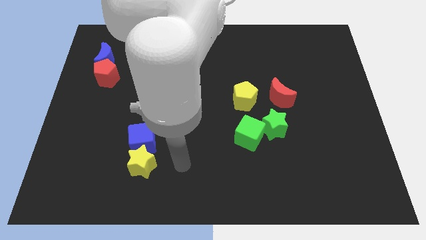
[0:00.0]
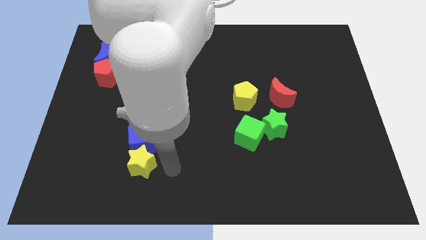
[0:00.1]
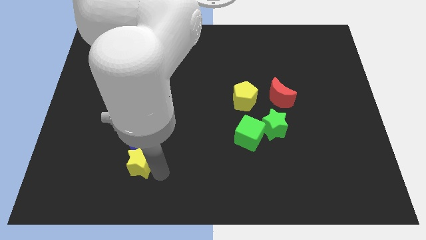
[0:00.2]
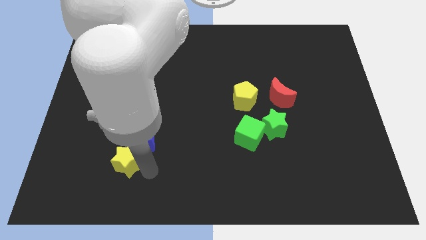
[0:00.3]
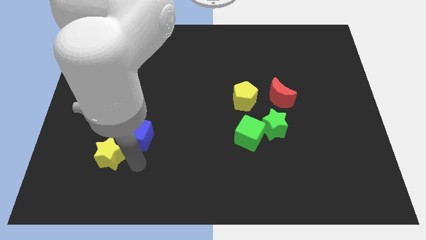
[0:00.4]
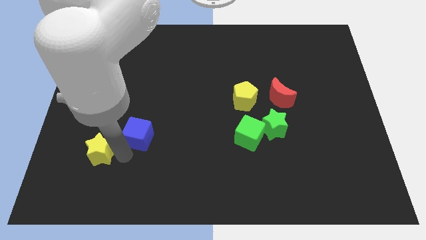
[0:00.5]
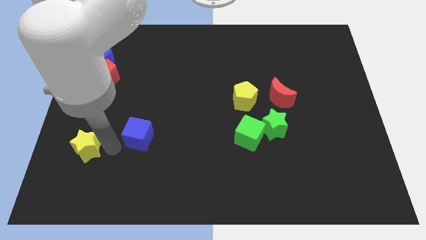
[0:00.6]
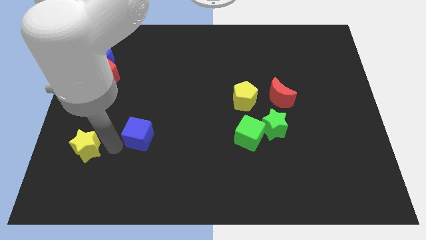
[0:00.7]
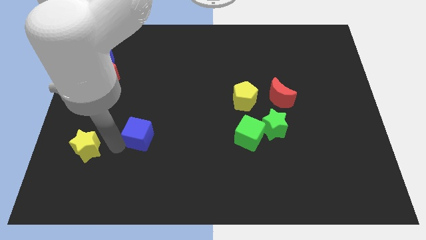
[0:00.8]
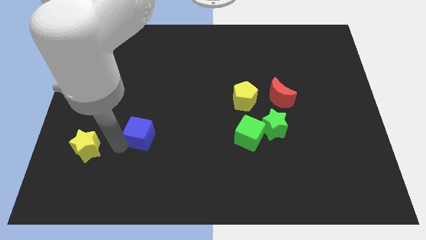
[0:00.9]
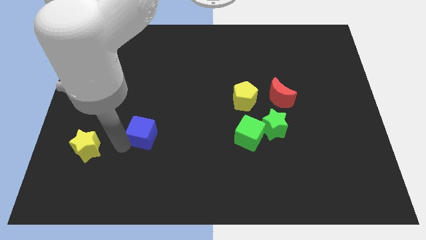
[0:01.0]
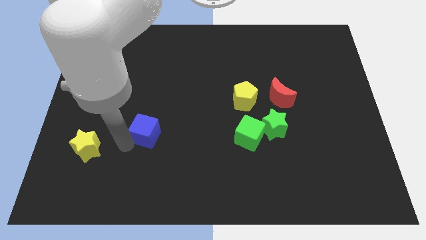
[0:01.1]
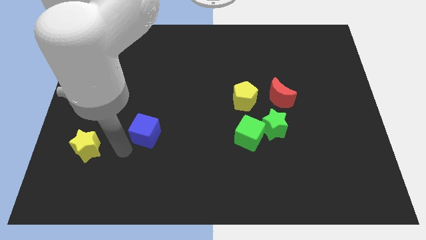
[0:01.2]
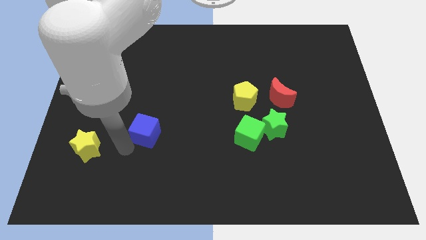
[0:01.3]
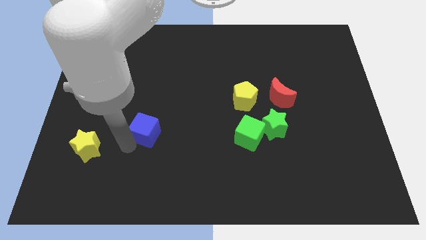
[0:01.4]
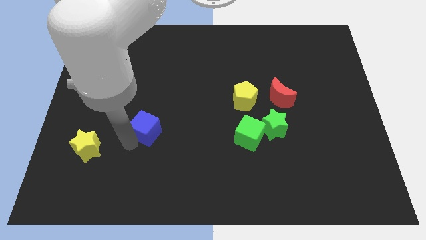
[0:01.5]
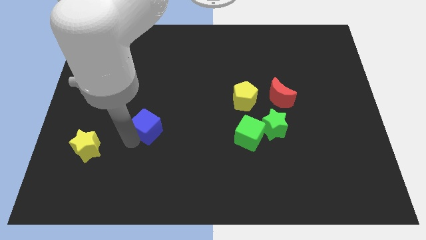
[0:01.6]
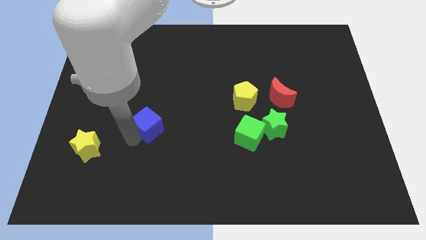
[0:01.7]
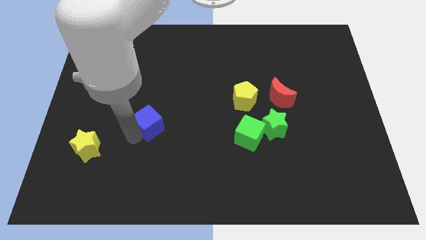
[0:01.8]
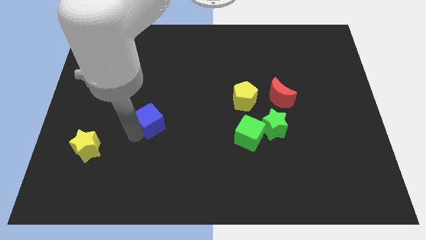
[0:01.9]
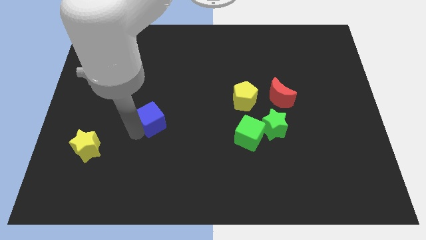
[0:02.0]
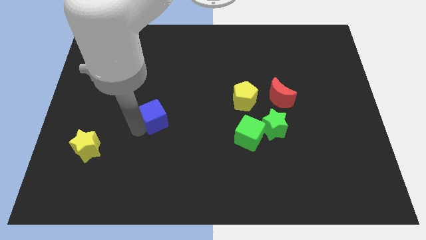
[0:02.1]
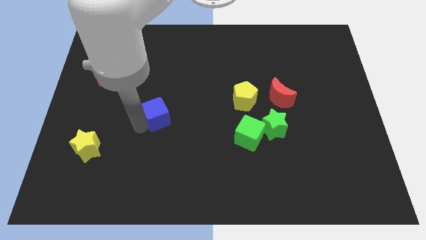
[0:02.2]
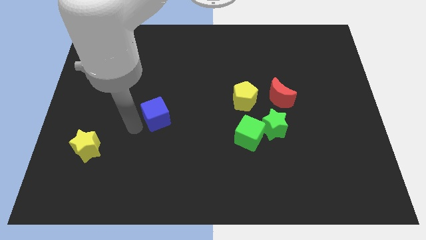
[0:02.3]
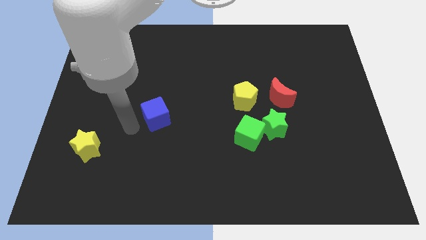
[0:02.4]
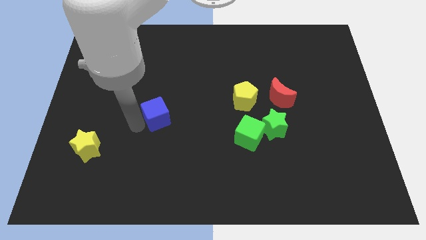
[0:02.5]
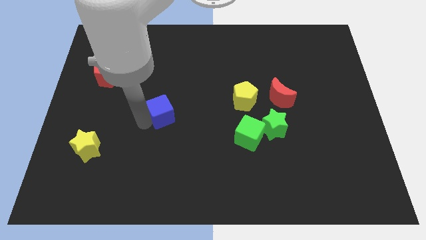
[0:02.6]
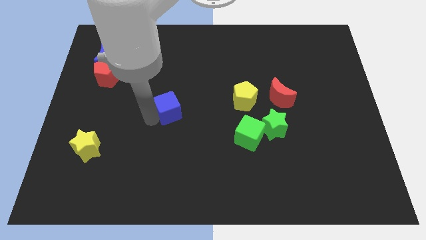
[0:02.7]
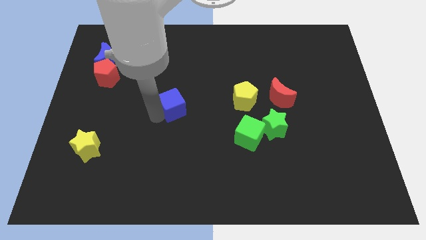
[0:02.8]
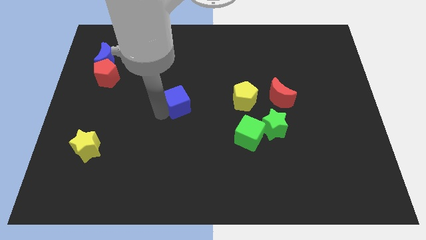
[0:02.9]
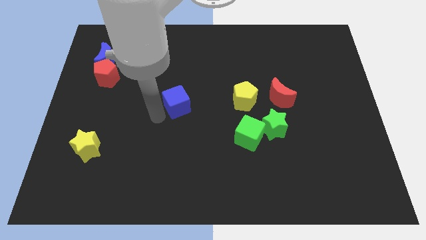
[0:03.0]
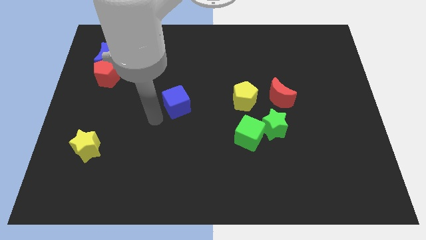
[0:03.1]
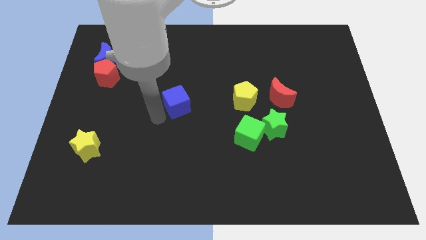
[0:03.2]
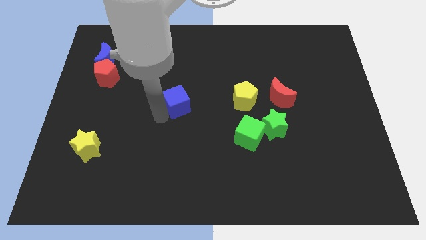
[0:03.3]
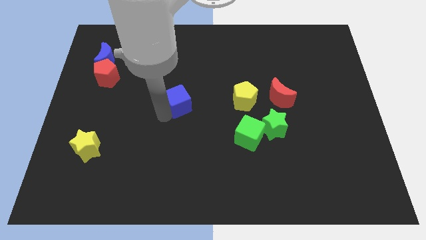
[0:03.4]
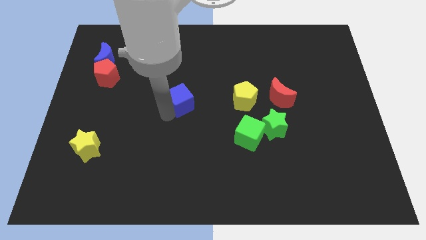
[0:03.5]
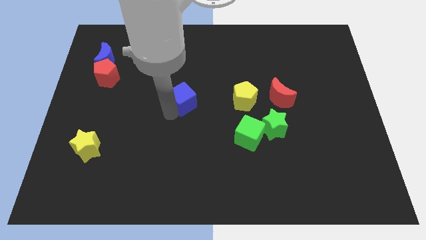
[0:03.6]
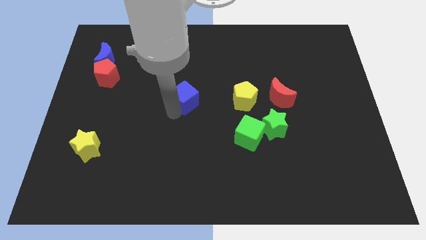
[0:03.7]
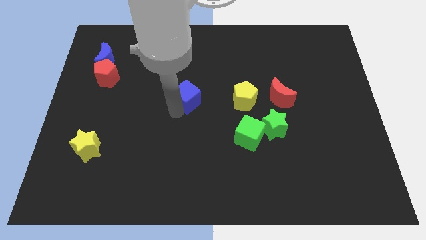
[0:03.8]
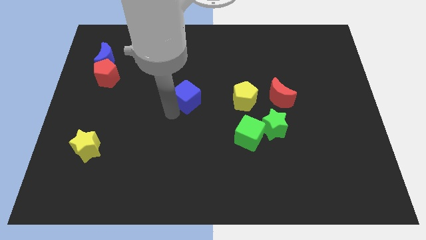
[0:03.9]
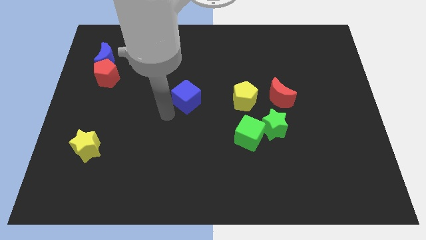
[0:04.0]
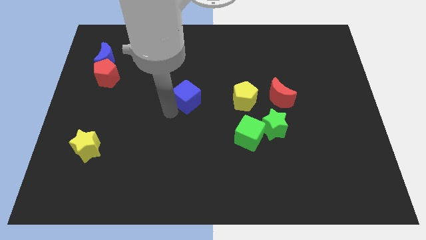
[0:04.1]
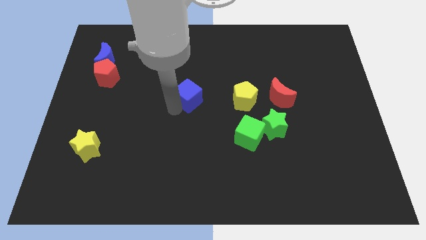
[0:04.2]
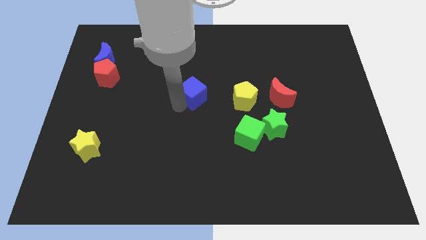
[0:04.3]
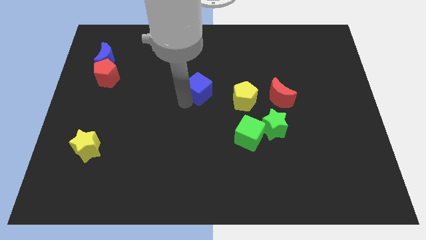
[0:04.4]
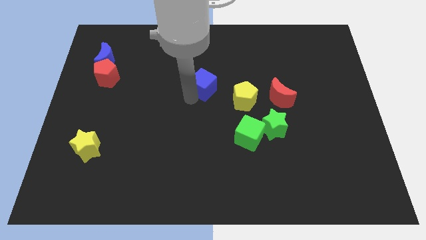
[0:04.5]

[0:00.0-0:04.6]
move the blue cube diagonally up and right

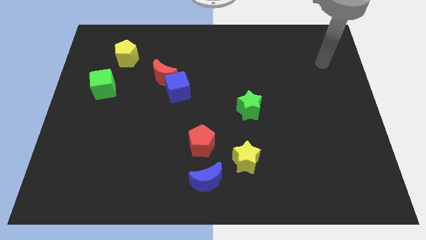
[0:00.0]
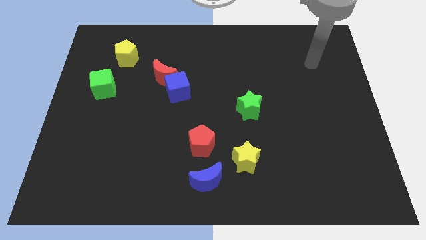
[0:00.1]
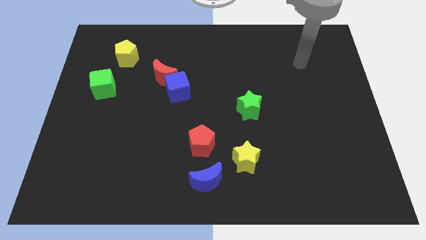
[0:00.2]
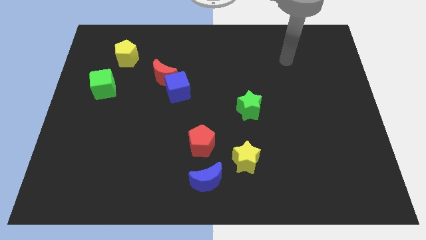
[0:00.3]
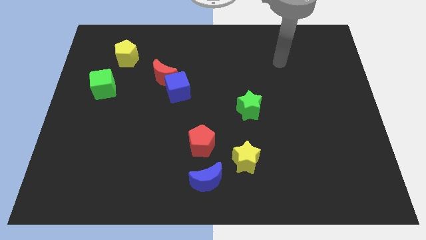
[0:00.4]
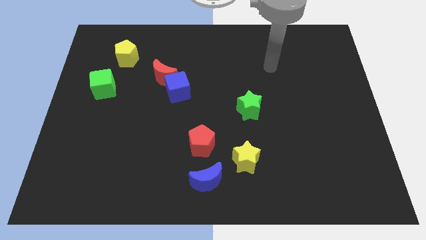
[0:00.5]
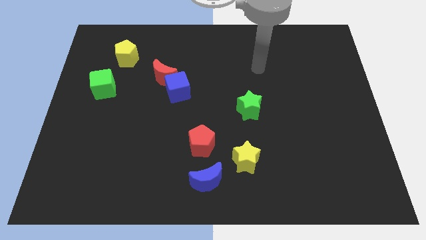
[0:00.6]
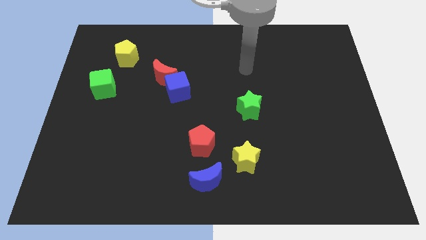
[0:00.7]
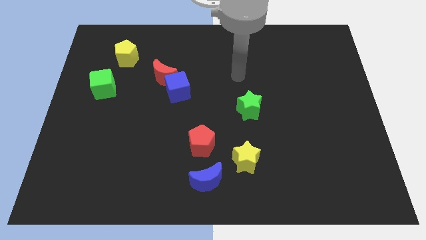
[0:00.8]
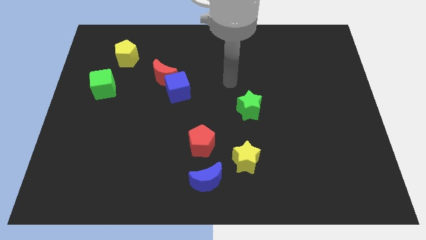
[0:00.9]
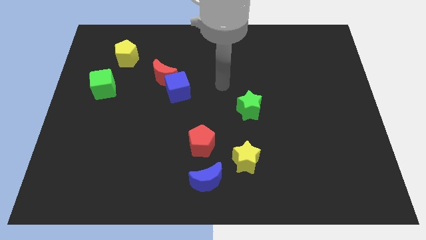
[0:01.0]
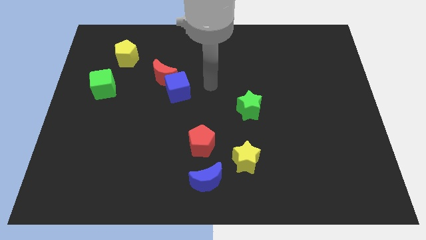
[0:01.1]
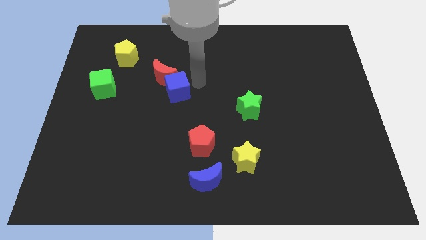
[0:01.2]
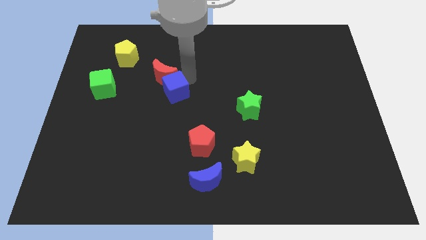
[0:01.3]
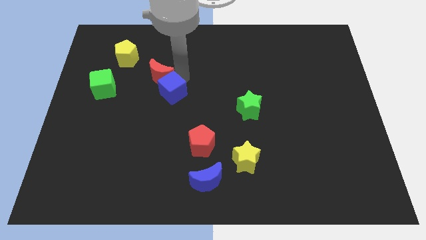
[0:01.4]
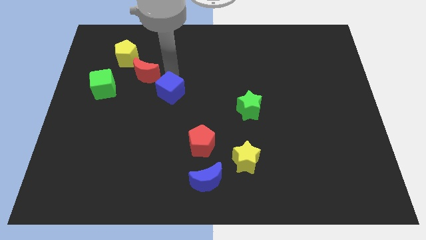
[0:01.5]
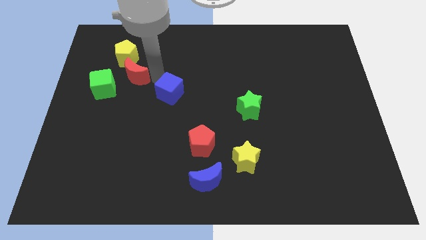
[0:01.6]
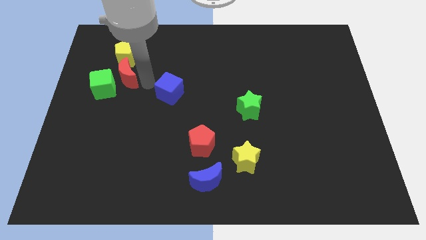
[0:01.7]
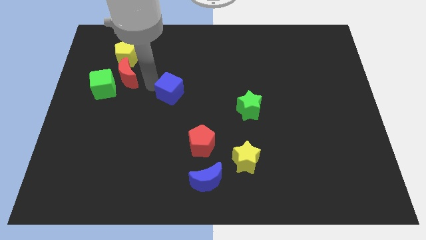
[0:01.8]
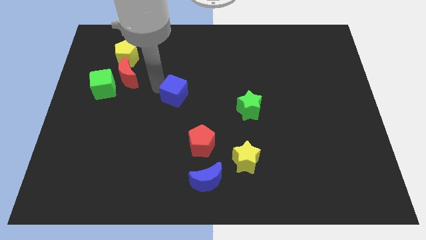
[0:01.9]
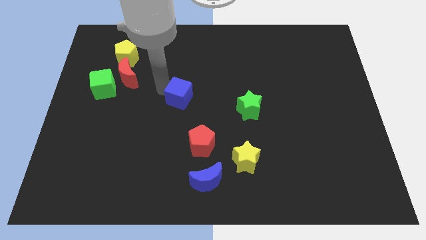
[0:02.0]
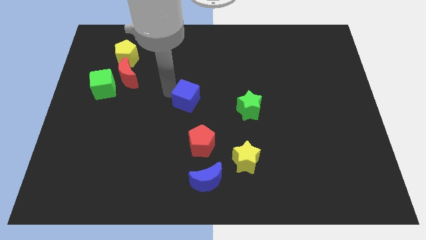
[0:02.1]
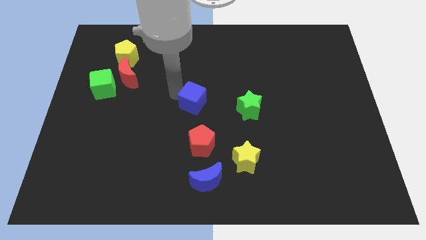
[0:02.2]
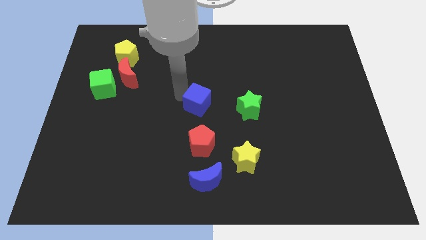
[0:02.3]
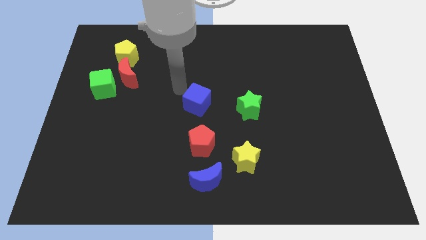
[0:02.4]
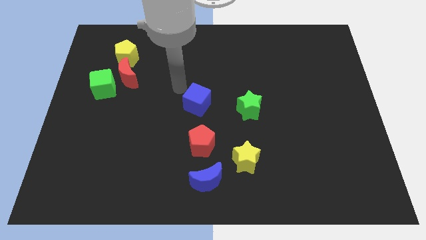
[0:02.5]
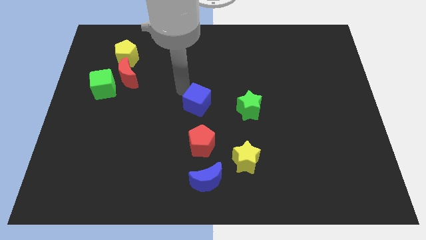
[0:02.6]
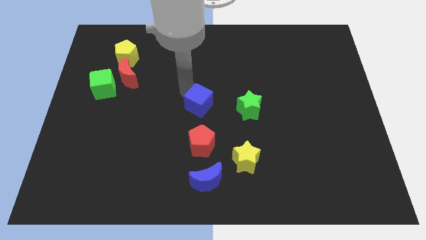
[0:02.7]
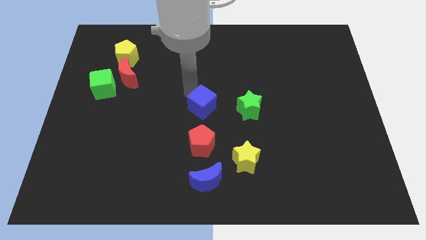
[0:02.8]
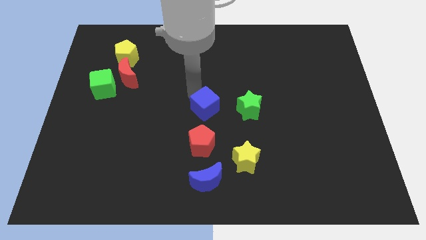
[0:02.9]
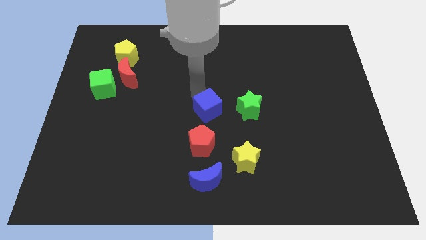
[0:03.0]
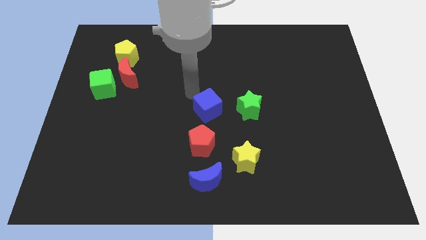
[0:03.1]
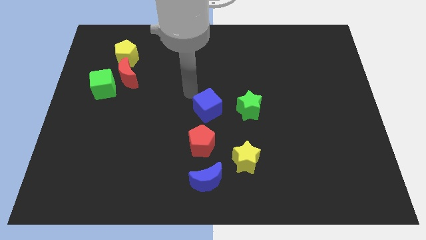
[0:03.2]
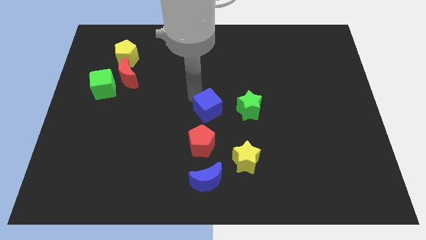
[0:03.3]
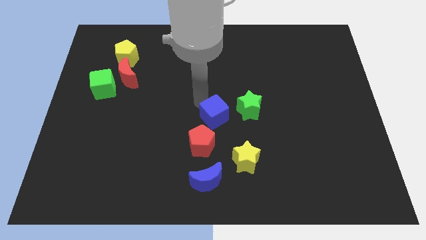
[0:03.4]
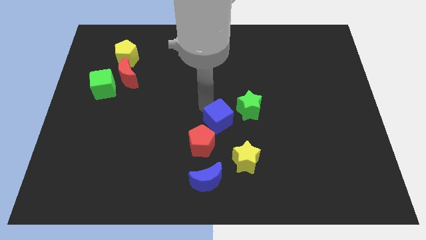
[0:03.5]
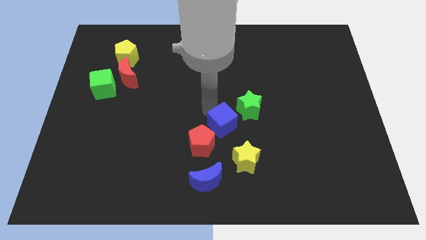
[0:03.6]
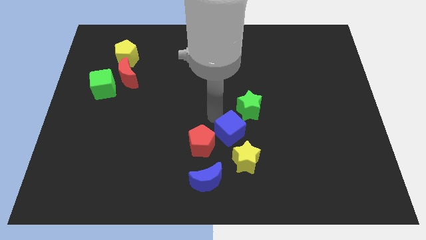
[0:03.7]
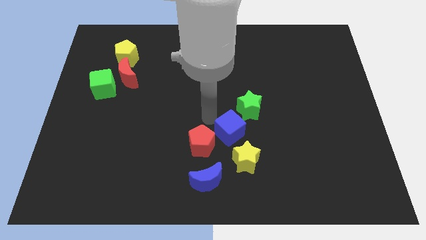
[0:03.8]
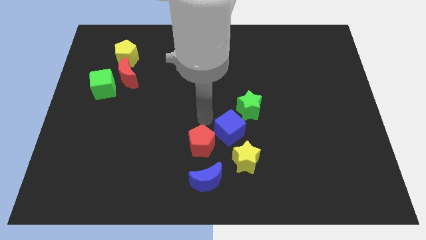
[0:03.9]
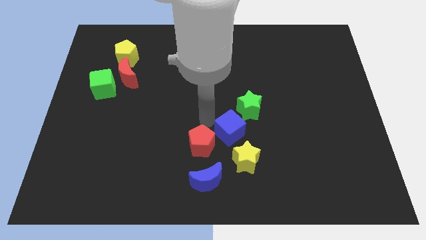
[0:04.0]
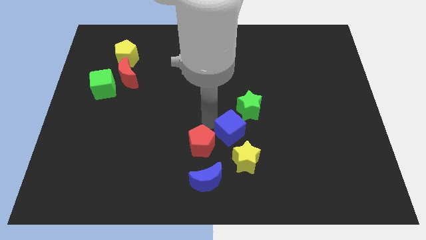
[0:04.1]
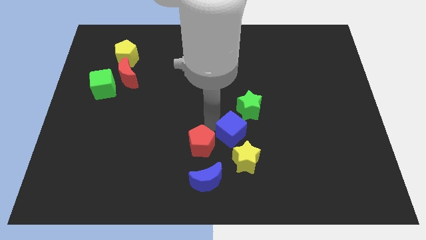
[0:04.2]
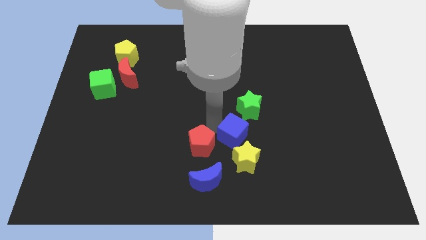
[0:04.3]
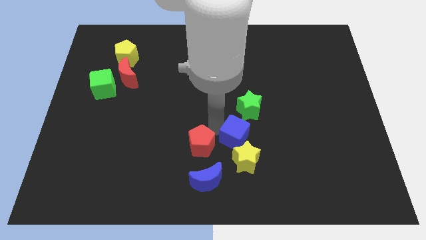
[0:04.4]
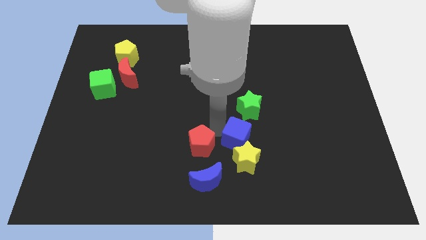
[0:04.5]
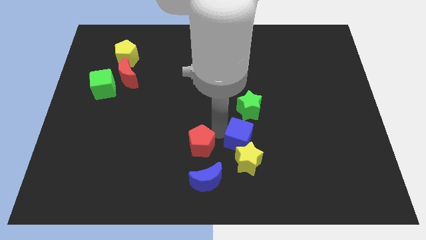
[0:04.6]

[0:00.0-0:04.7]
slide the blue cube downwards and right
